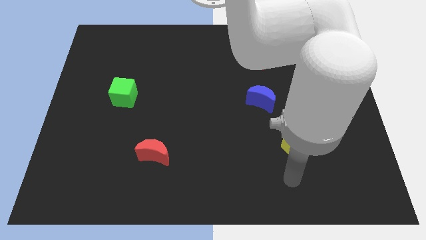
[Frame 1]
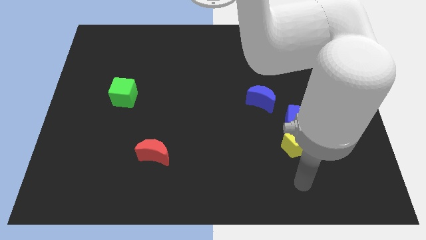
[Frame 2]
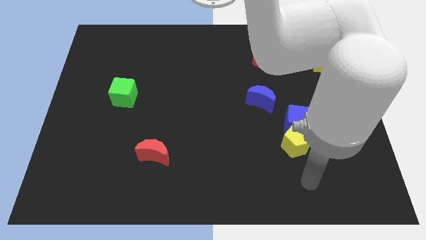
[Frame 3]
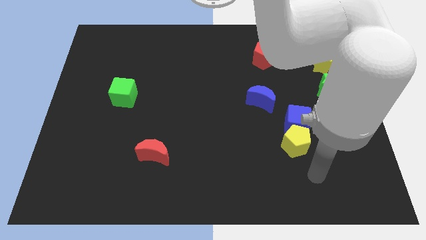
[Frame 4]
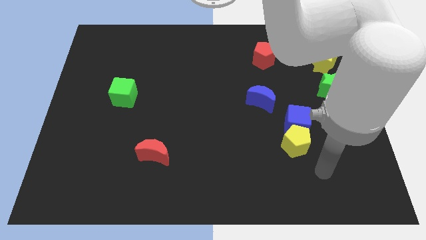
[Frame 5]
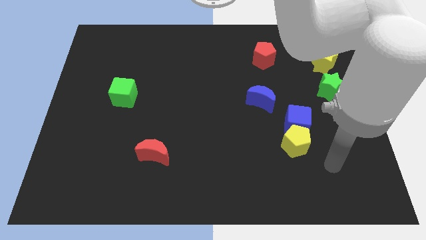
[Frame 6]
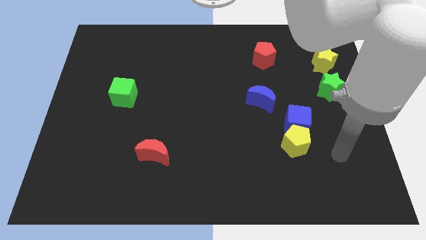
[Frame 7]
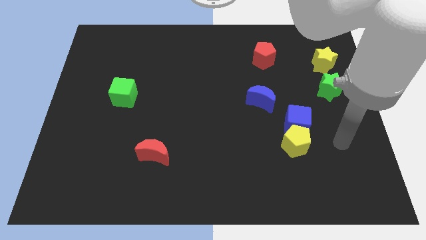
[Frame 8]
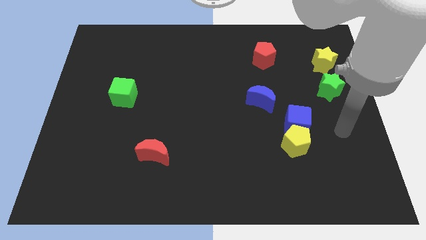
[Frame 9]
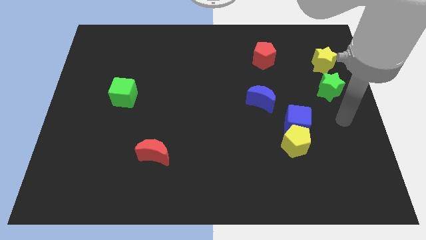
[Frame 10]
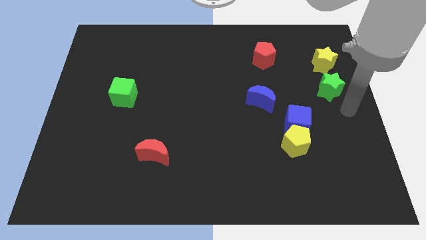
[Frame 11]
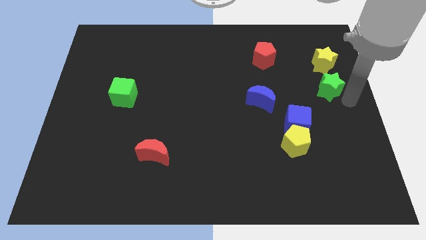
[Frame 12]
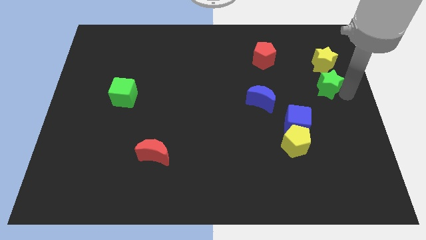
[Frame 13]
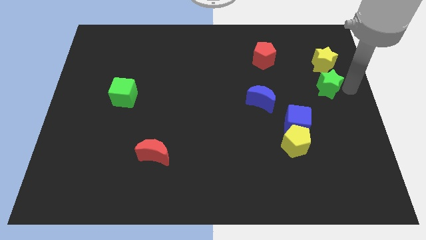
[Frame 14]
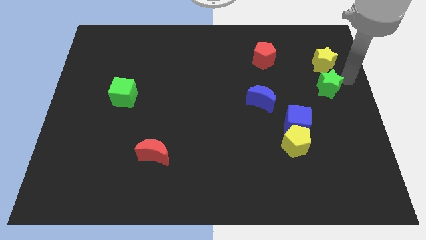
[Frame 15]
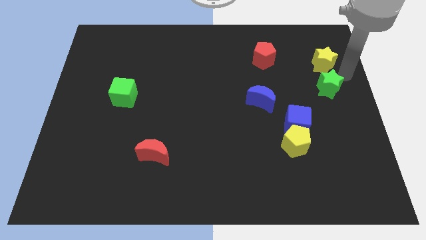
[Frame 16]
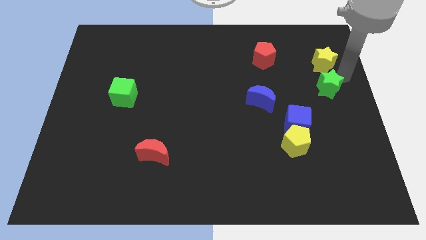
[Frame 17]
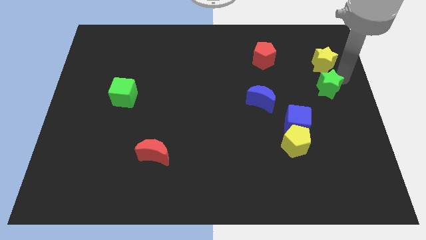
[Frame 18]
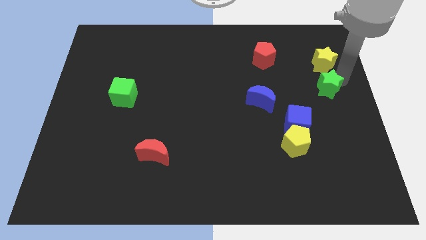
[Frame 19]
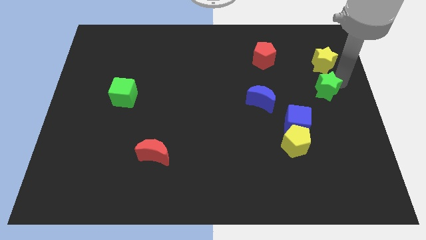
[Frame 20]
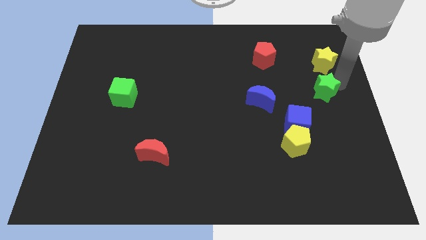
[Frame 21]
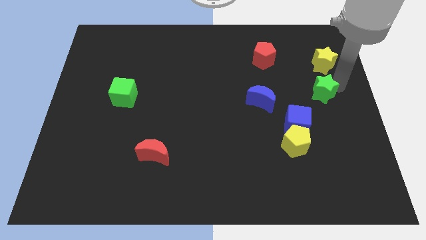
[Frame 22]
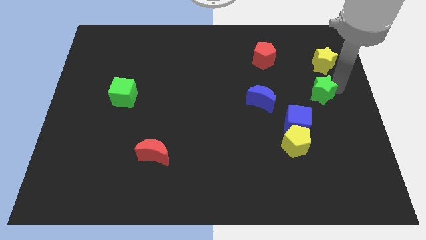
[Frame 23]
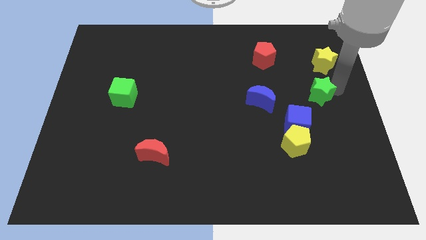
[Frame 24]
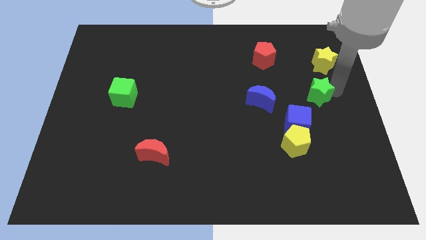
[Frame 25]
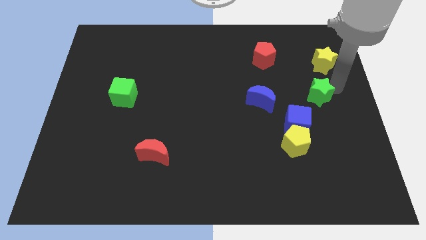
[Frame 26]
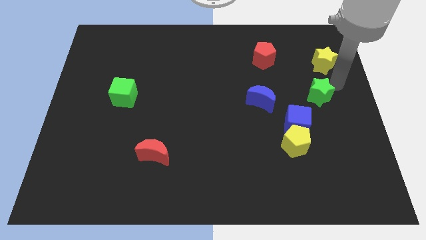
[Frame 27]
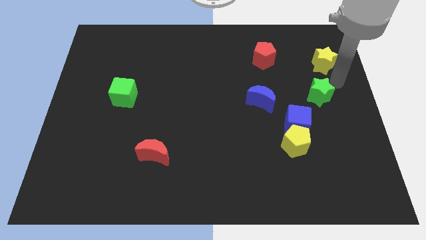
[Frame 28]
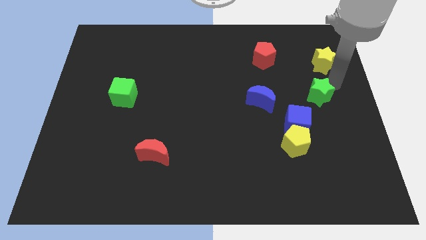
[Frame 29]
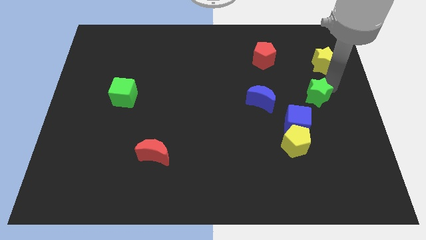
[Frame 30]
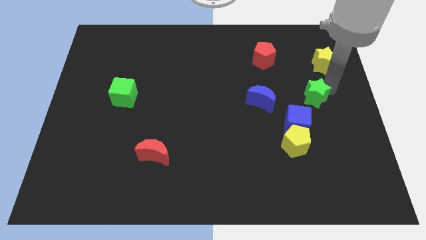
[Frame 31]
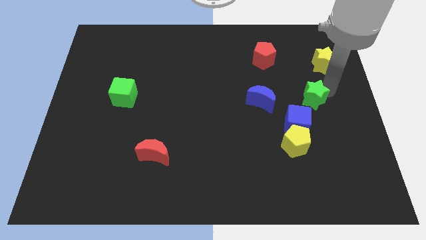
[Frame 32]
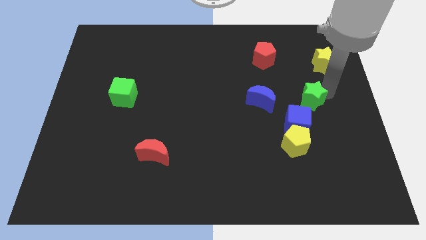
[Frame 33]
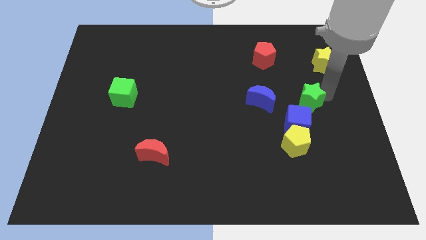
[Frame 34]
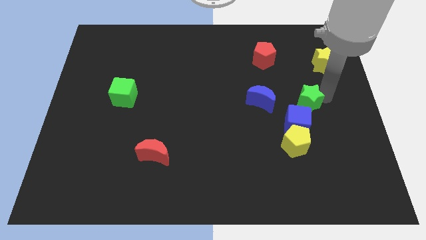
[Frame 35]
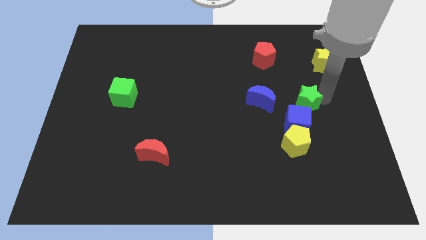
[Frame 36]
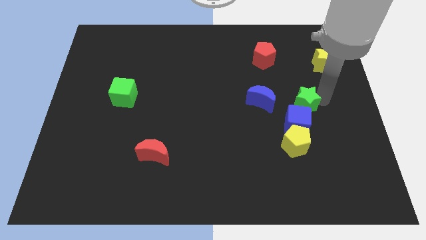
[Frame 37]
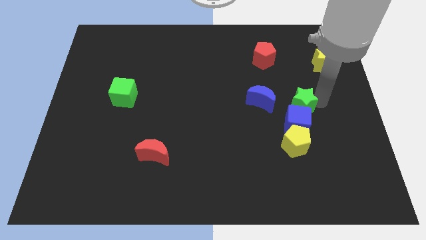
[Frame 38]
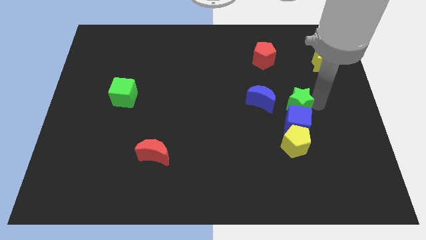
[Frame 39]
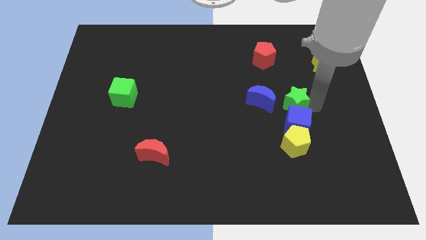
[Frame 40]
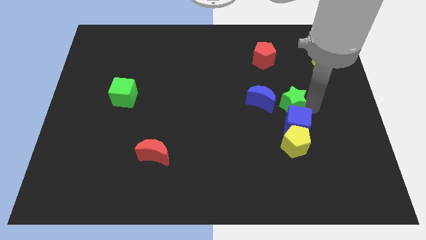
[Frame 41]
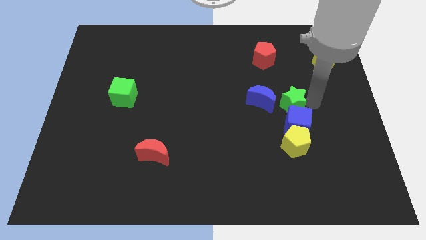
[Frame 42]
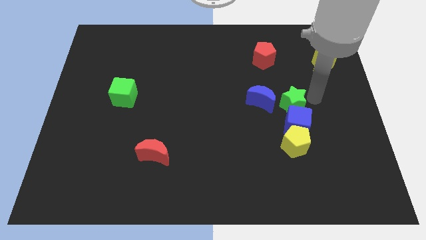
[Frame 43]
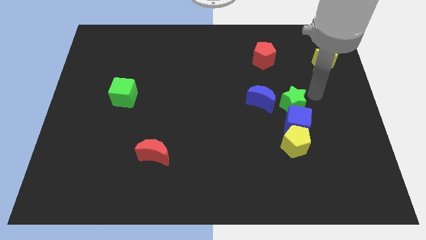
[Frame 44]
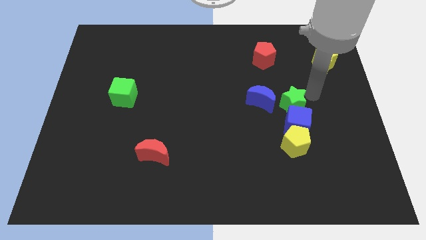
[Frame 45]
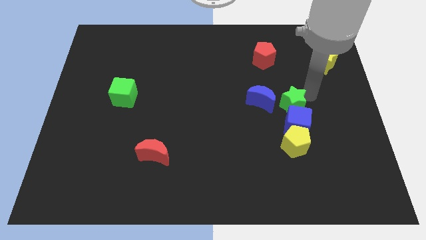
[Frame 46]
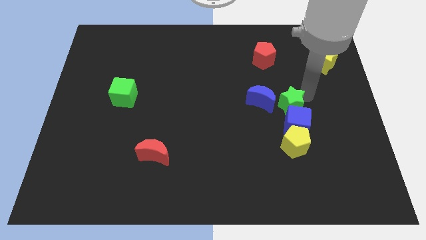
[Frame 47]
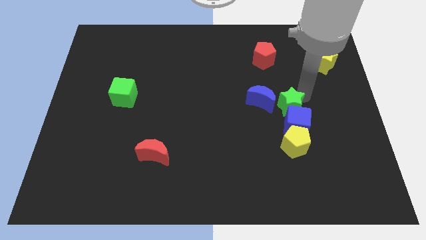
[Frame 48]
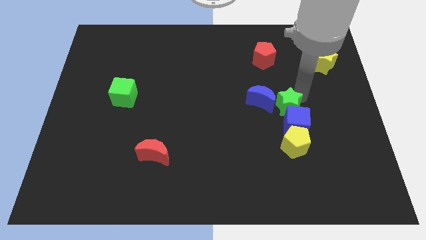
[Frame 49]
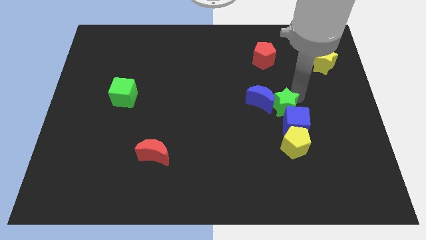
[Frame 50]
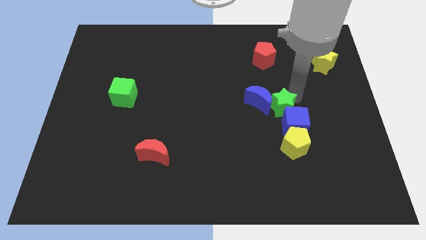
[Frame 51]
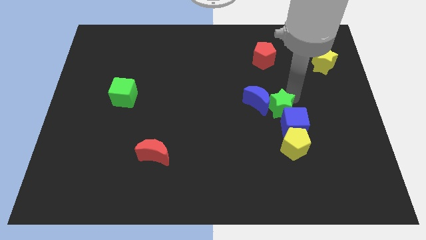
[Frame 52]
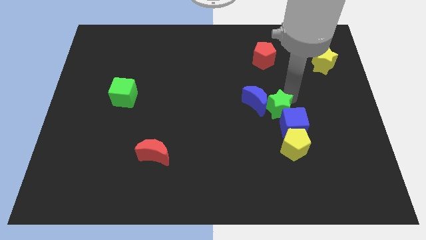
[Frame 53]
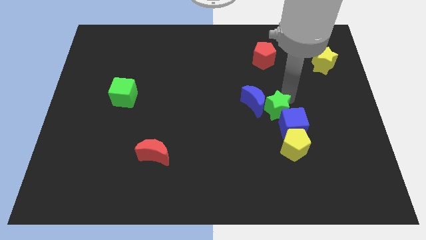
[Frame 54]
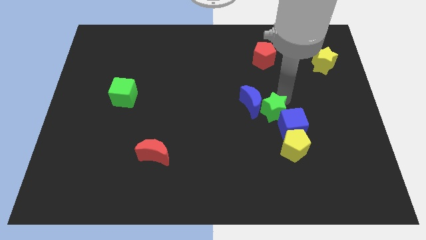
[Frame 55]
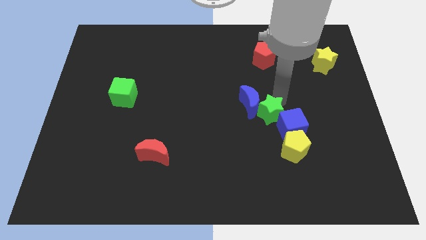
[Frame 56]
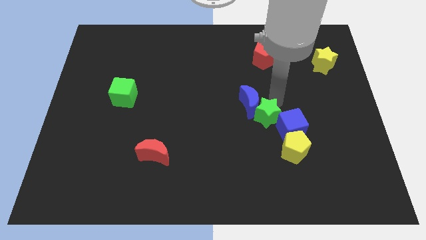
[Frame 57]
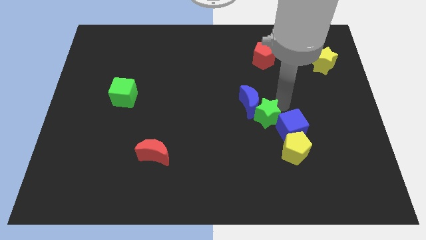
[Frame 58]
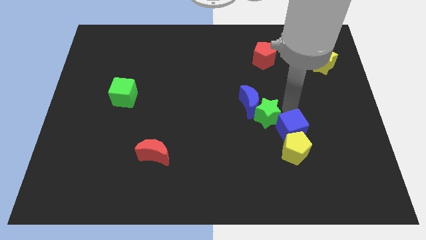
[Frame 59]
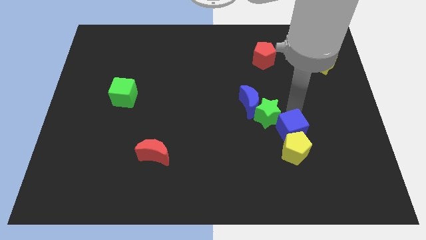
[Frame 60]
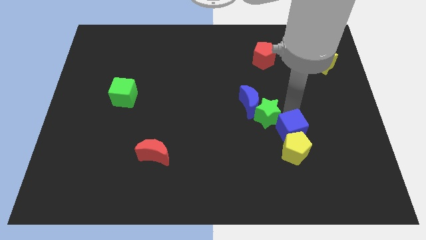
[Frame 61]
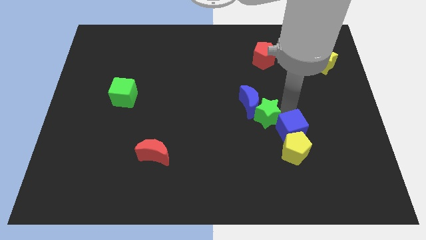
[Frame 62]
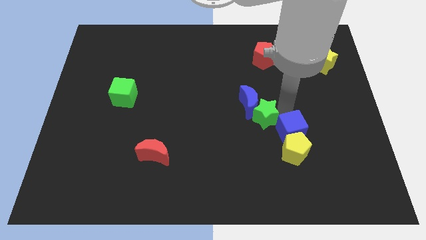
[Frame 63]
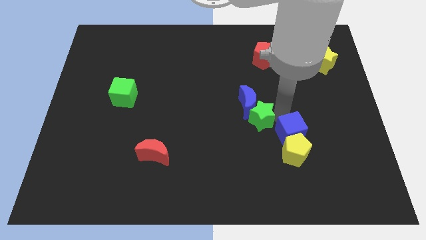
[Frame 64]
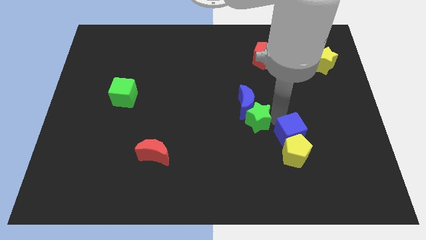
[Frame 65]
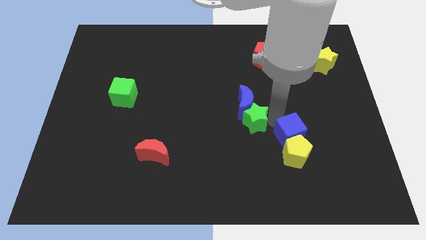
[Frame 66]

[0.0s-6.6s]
slide the green star to the bottom left side of the blue moon

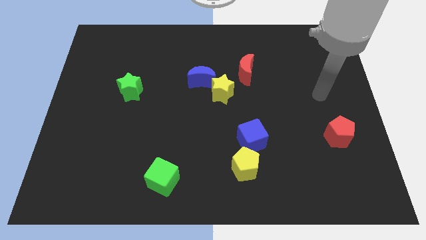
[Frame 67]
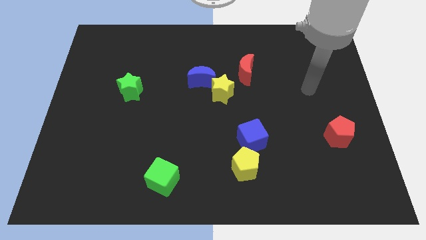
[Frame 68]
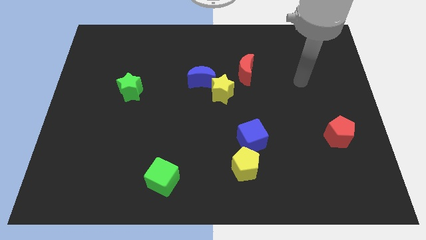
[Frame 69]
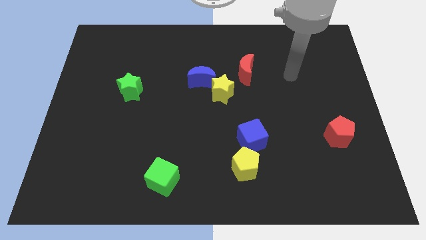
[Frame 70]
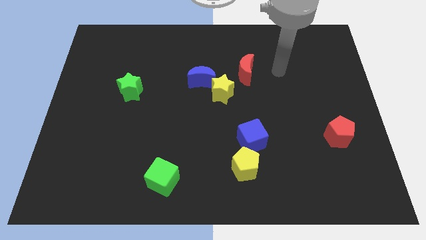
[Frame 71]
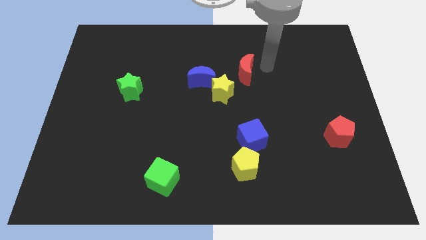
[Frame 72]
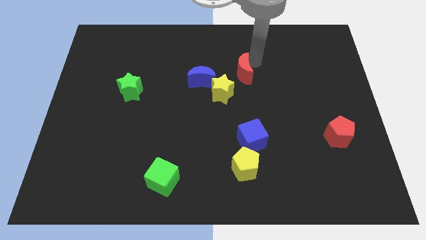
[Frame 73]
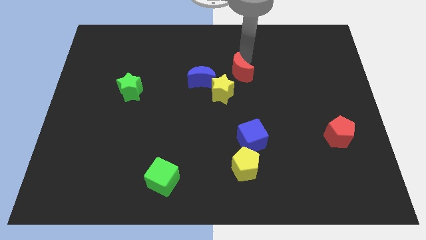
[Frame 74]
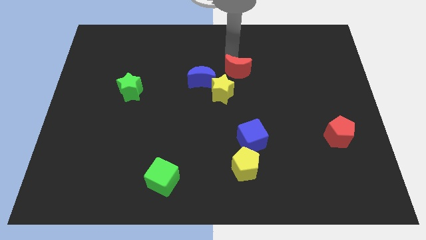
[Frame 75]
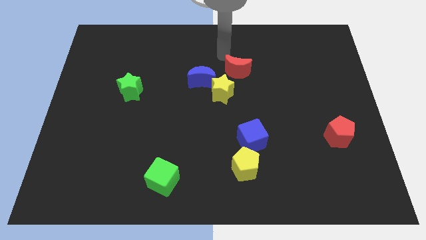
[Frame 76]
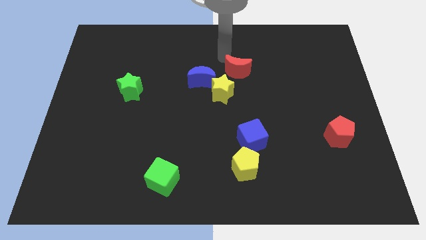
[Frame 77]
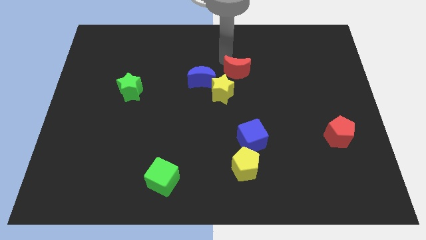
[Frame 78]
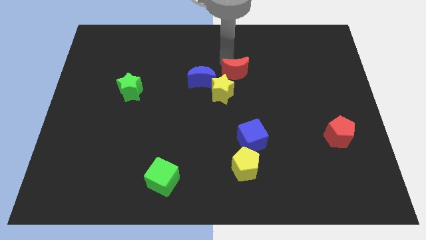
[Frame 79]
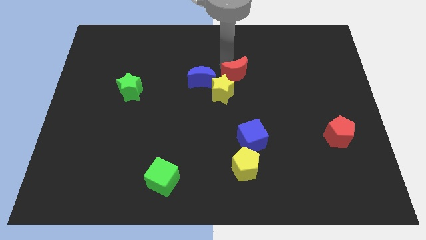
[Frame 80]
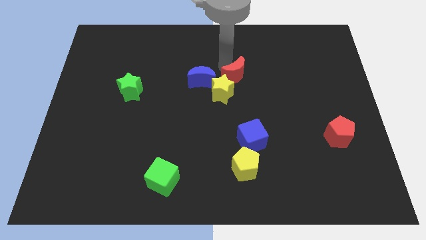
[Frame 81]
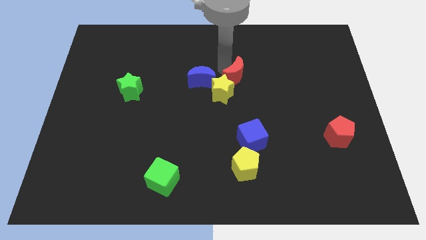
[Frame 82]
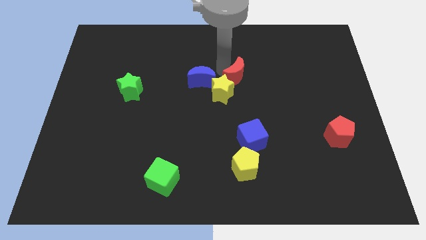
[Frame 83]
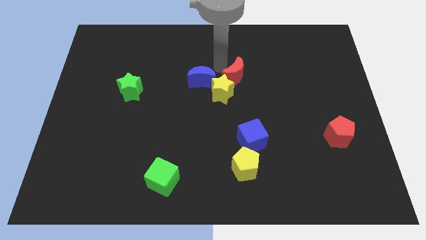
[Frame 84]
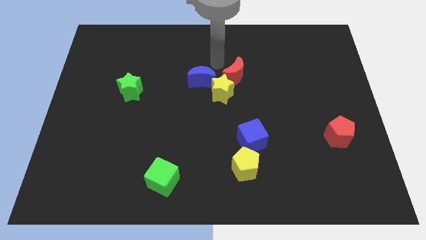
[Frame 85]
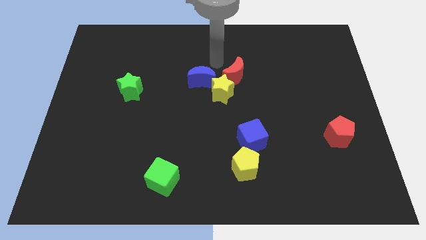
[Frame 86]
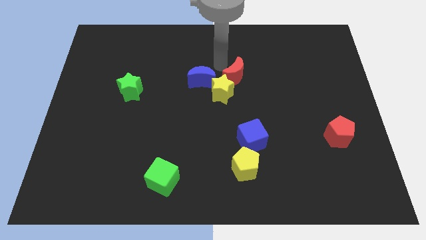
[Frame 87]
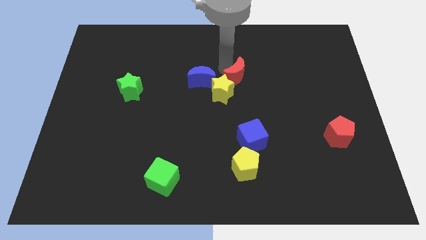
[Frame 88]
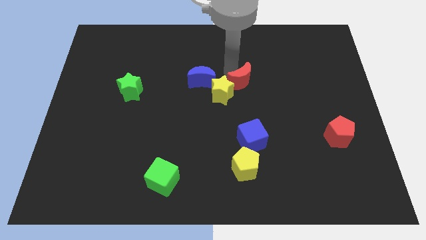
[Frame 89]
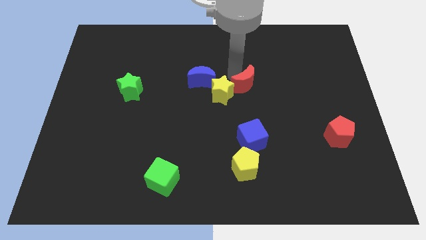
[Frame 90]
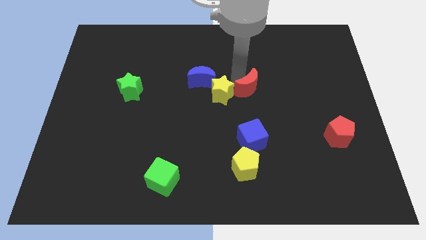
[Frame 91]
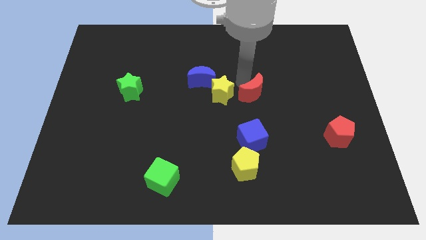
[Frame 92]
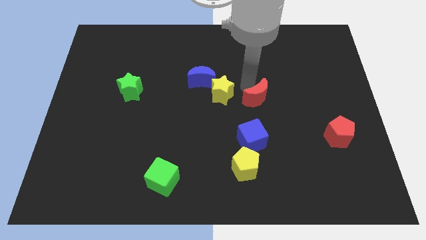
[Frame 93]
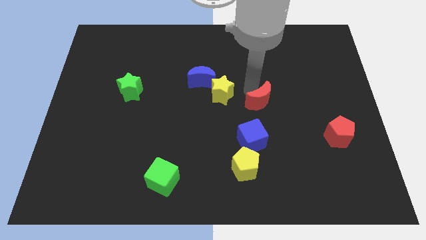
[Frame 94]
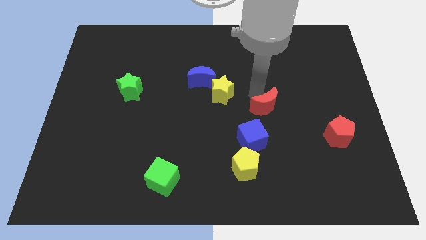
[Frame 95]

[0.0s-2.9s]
move the red moon diagonally up and to the right of the blue cube
